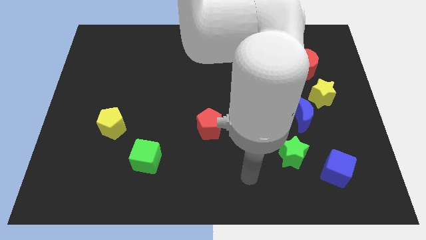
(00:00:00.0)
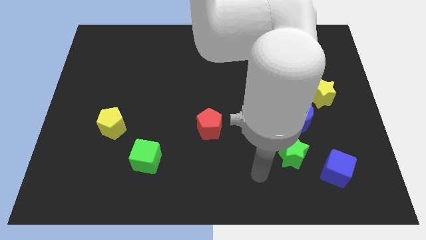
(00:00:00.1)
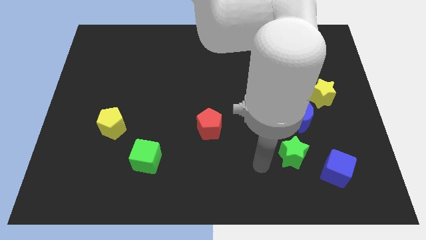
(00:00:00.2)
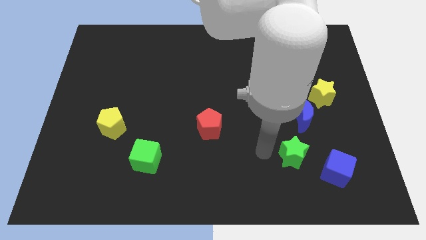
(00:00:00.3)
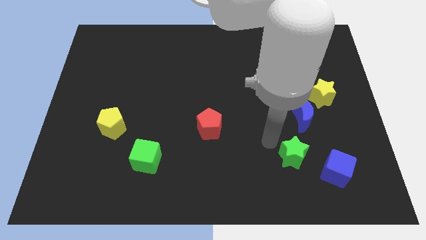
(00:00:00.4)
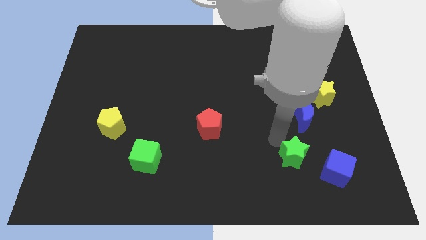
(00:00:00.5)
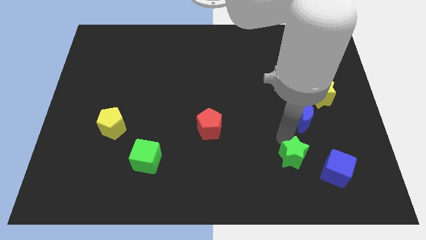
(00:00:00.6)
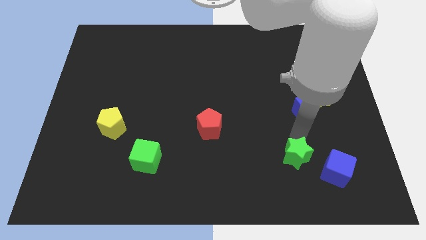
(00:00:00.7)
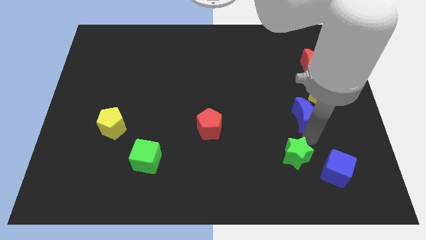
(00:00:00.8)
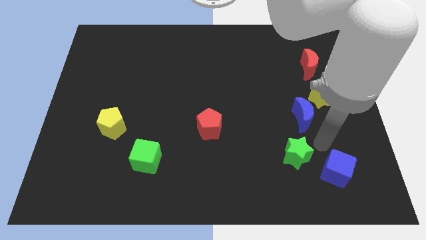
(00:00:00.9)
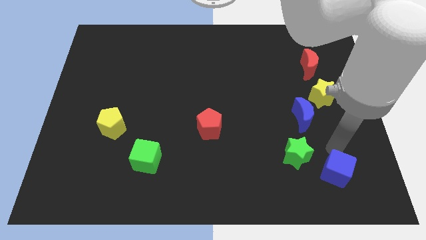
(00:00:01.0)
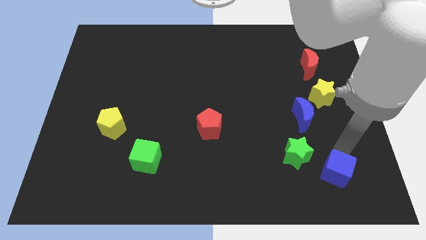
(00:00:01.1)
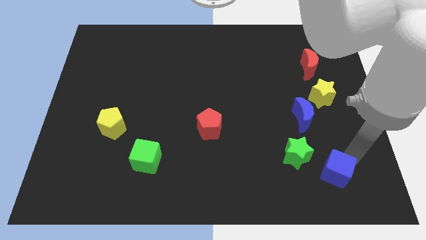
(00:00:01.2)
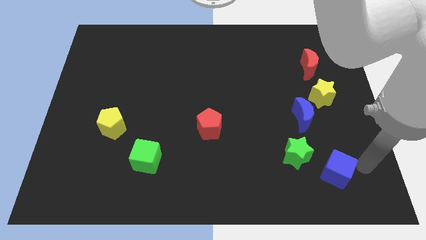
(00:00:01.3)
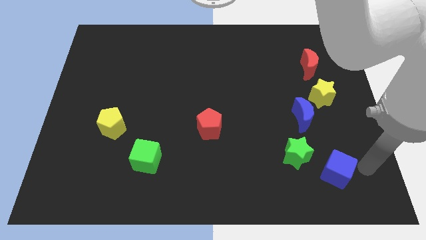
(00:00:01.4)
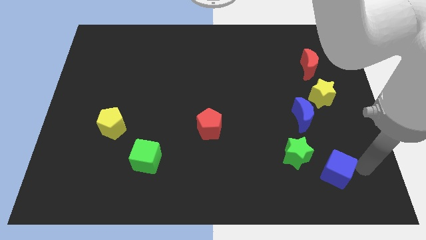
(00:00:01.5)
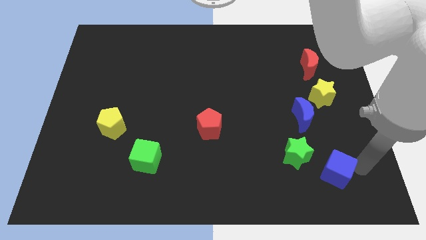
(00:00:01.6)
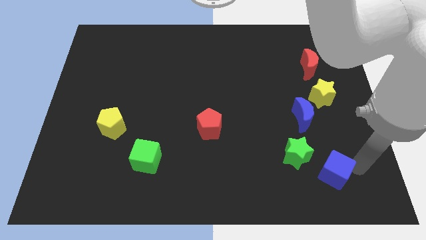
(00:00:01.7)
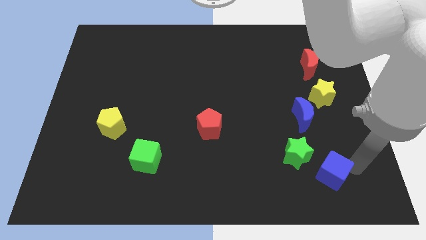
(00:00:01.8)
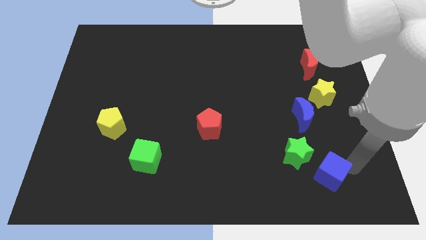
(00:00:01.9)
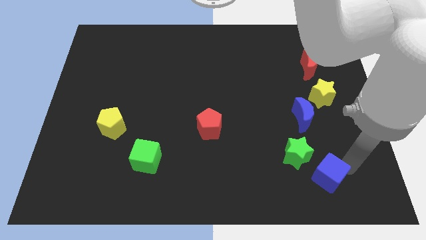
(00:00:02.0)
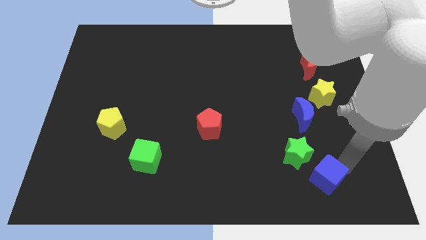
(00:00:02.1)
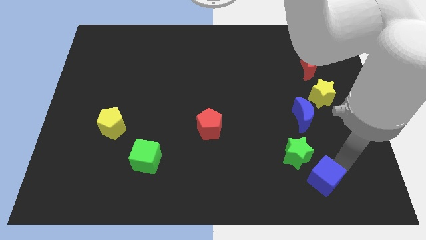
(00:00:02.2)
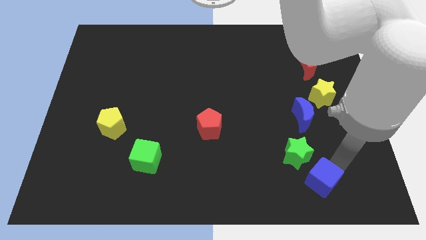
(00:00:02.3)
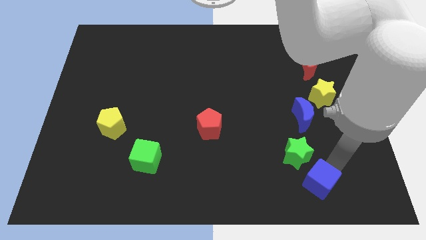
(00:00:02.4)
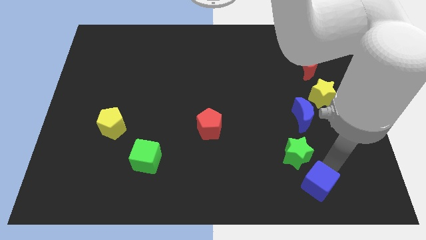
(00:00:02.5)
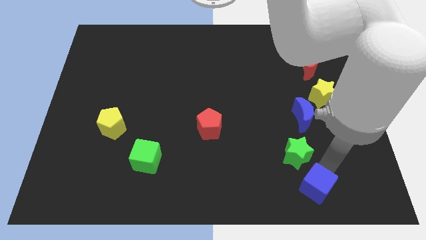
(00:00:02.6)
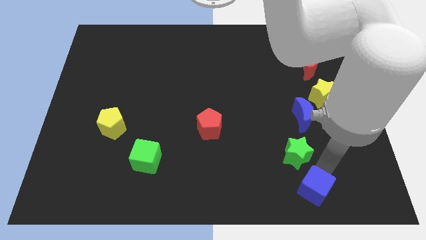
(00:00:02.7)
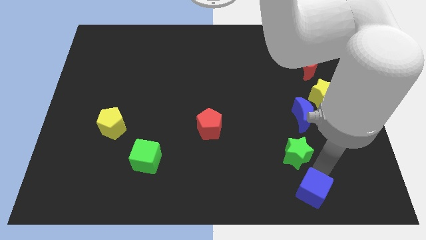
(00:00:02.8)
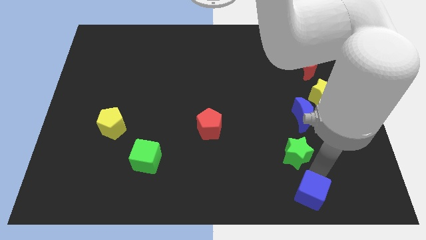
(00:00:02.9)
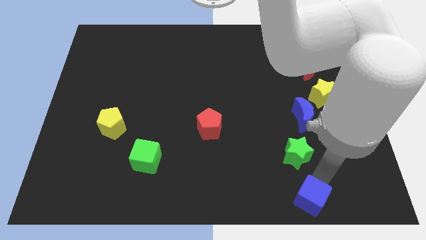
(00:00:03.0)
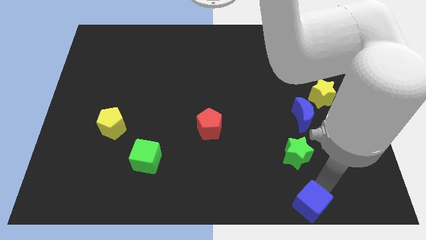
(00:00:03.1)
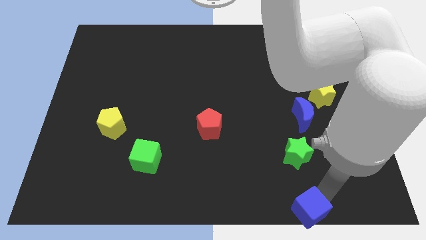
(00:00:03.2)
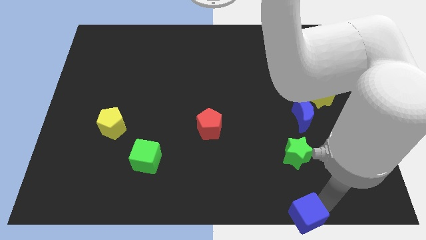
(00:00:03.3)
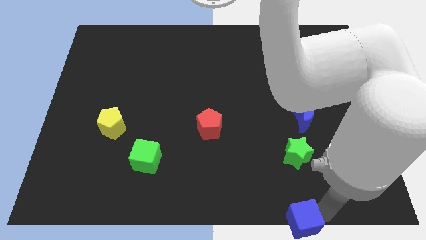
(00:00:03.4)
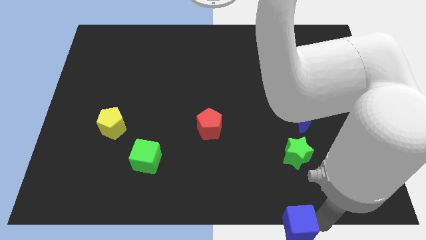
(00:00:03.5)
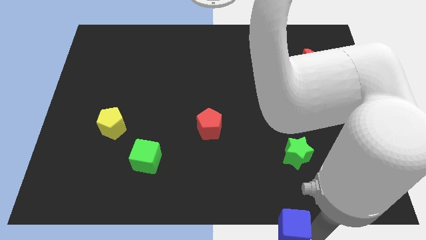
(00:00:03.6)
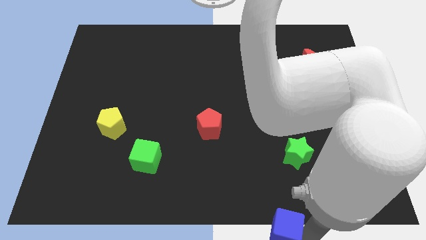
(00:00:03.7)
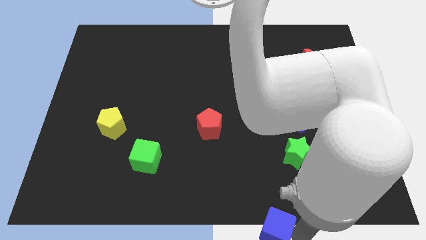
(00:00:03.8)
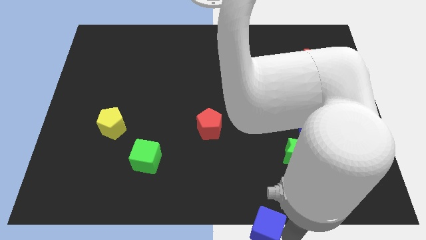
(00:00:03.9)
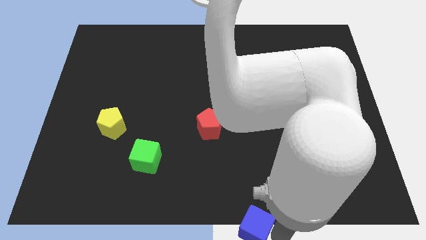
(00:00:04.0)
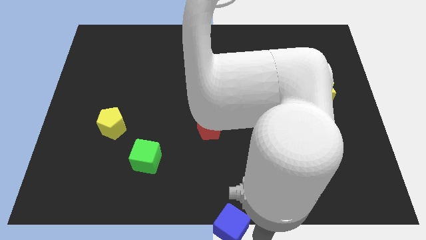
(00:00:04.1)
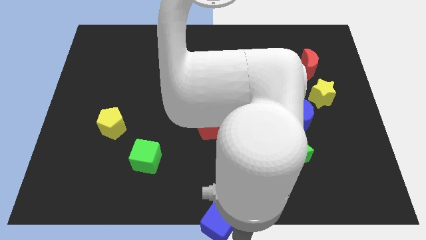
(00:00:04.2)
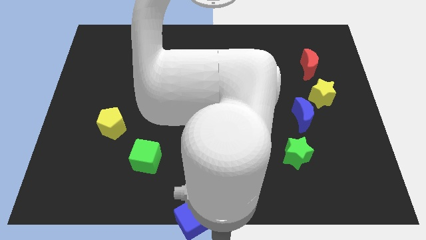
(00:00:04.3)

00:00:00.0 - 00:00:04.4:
slide the blue cube left

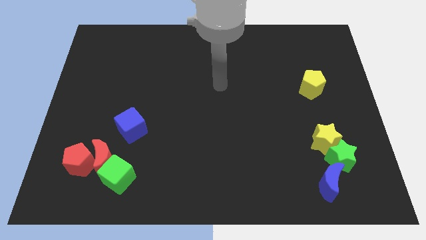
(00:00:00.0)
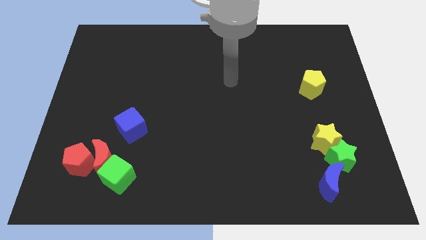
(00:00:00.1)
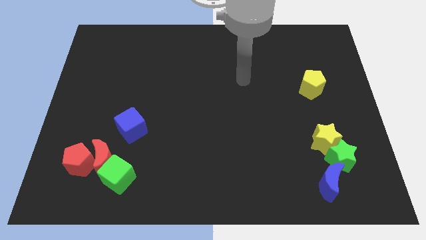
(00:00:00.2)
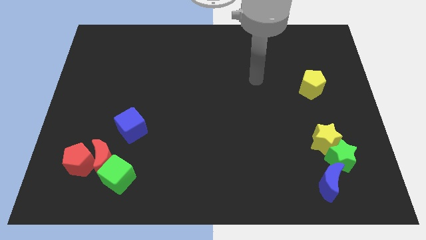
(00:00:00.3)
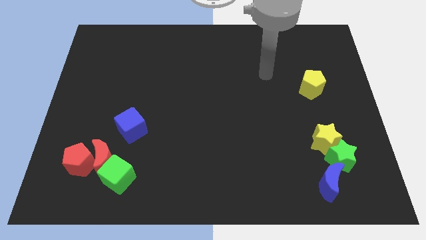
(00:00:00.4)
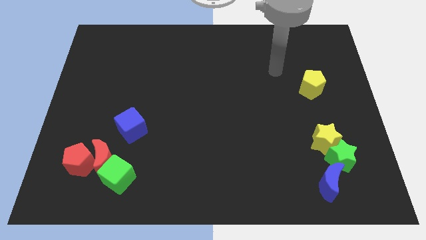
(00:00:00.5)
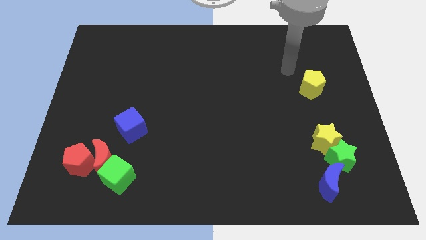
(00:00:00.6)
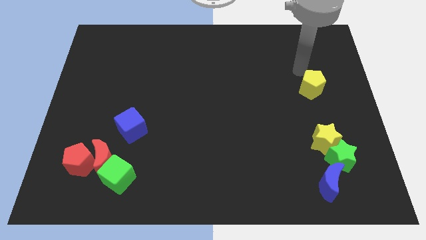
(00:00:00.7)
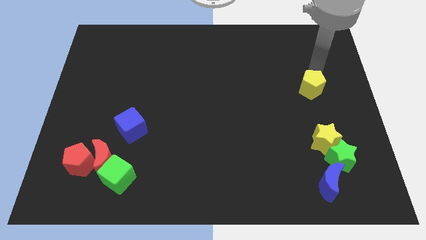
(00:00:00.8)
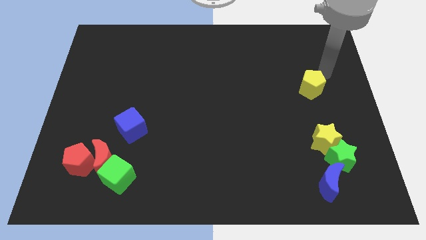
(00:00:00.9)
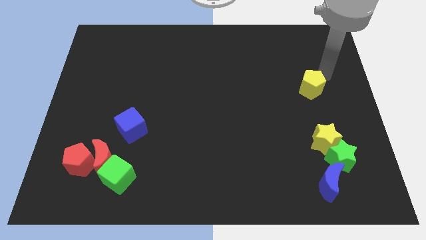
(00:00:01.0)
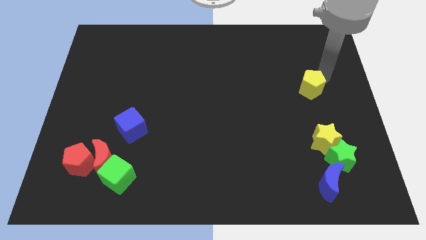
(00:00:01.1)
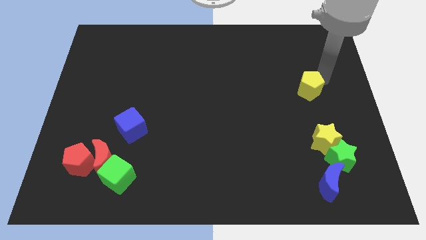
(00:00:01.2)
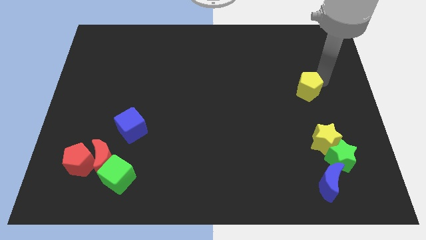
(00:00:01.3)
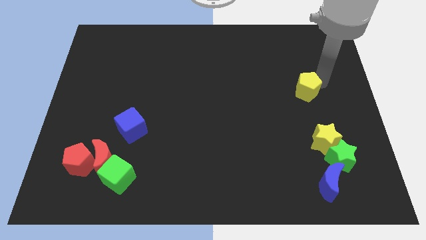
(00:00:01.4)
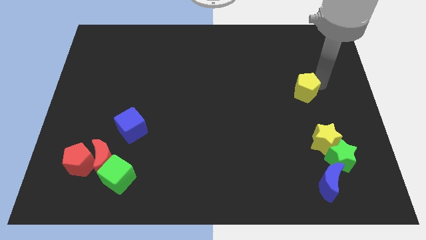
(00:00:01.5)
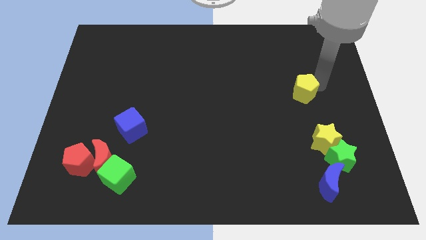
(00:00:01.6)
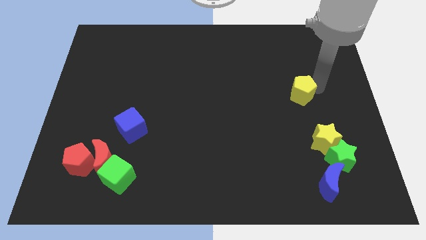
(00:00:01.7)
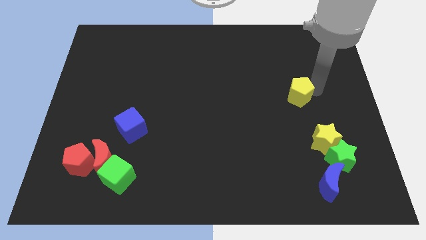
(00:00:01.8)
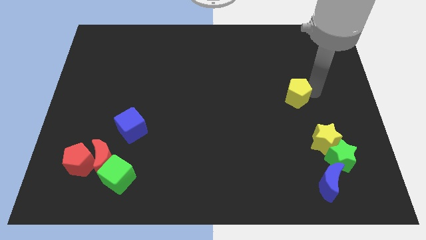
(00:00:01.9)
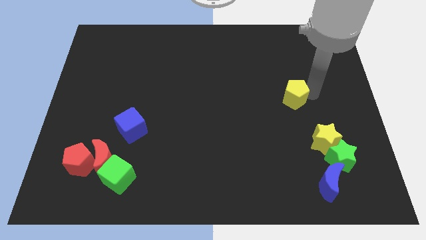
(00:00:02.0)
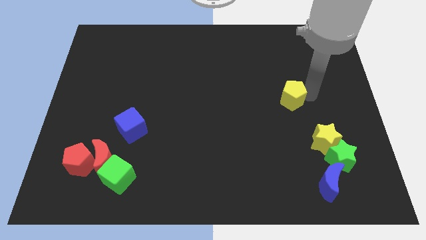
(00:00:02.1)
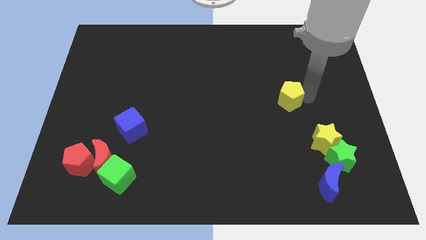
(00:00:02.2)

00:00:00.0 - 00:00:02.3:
slightly slide the yellow pentagon downwards and to the left

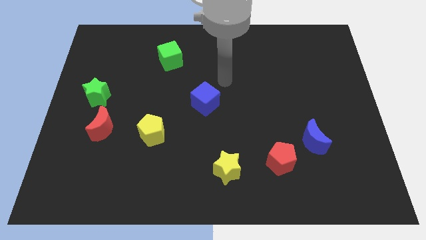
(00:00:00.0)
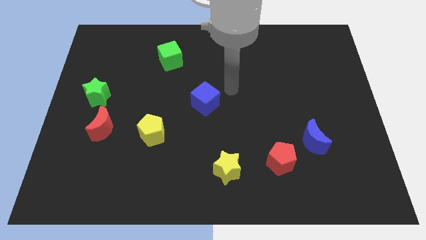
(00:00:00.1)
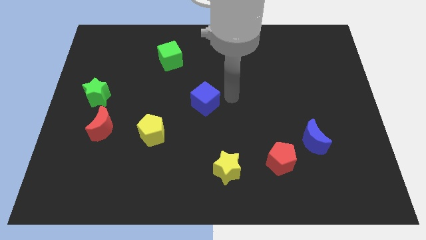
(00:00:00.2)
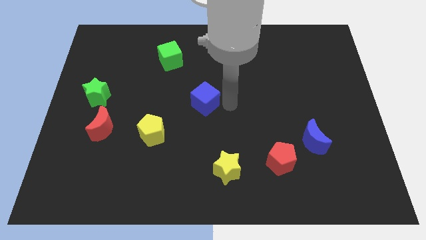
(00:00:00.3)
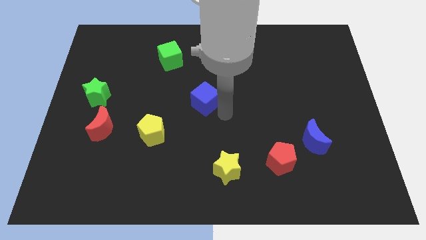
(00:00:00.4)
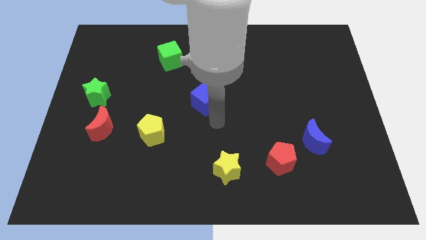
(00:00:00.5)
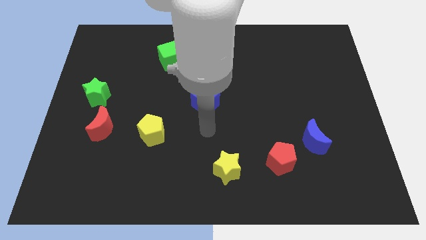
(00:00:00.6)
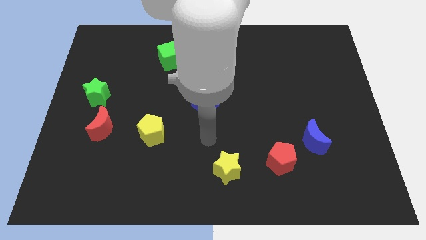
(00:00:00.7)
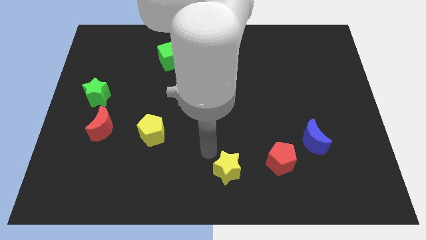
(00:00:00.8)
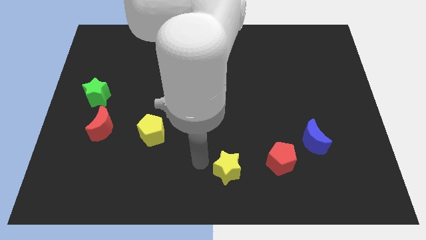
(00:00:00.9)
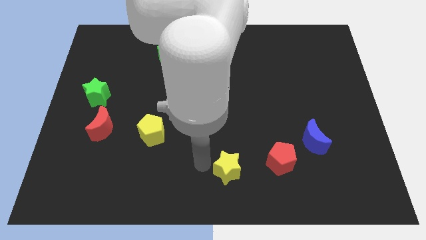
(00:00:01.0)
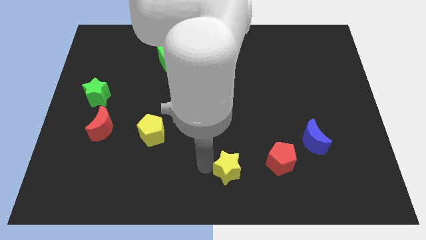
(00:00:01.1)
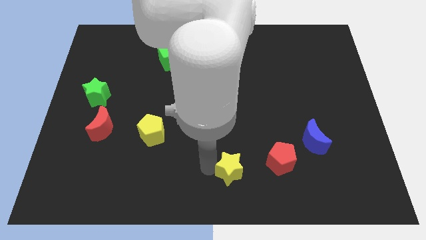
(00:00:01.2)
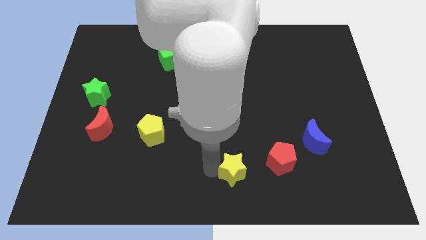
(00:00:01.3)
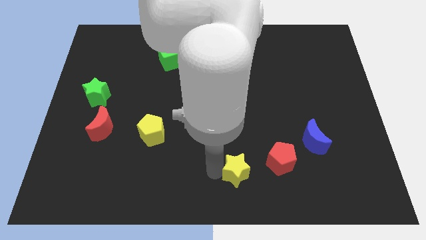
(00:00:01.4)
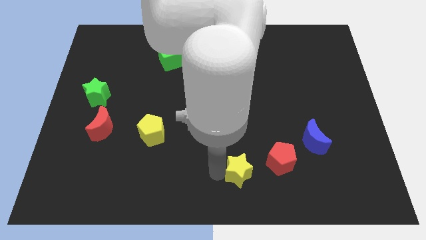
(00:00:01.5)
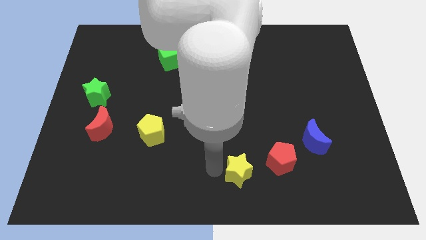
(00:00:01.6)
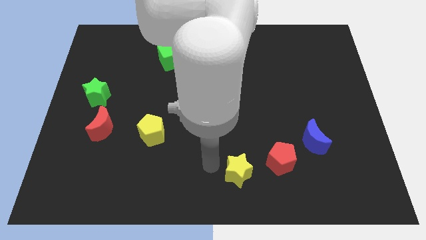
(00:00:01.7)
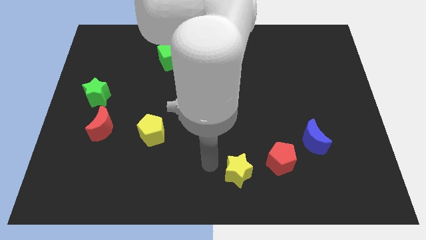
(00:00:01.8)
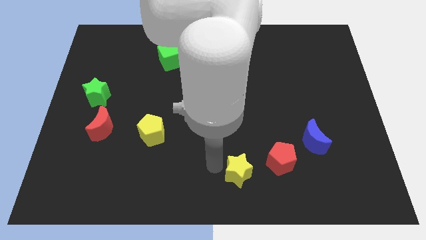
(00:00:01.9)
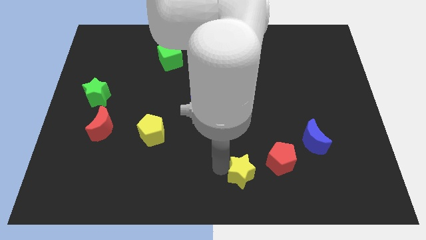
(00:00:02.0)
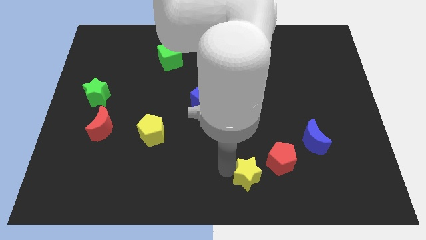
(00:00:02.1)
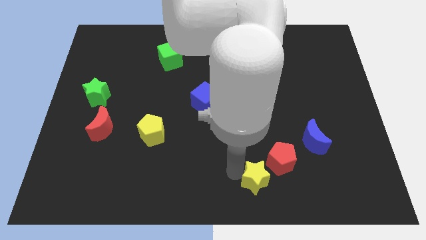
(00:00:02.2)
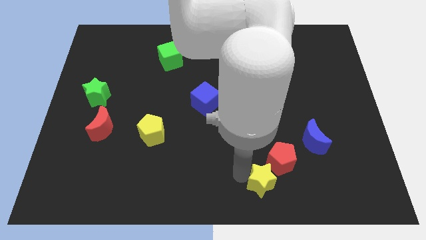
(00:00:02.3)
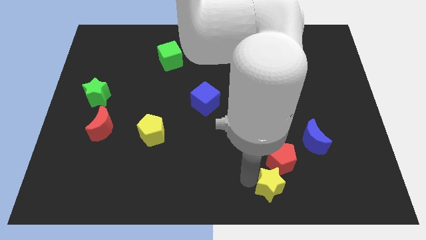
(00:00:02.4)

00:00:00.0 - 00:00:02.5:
move the yellow star right slightly
